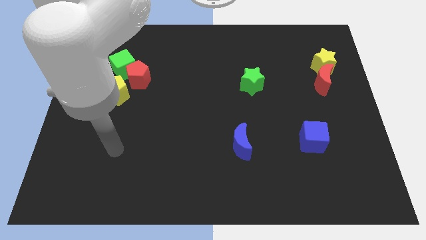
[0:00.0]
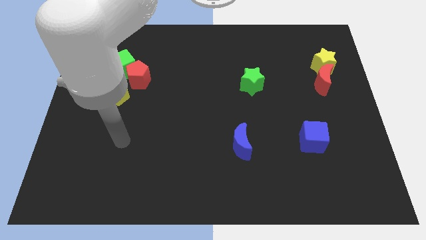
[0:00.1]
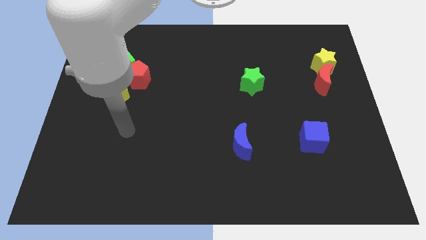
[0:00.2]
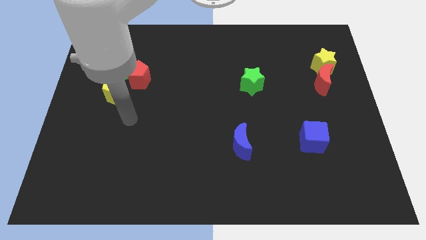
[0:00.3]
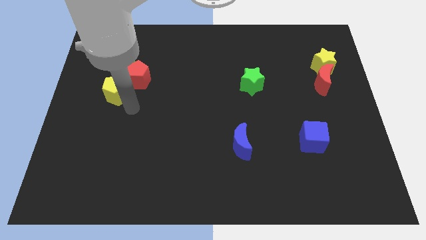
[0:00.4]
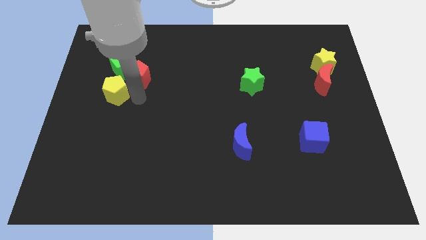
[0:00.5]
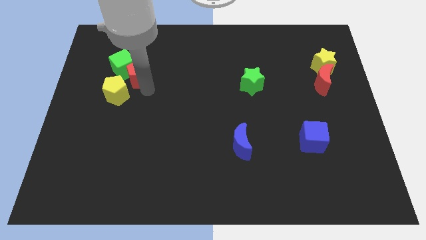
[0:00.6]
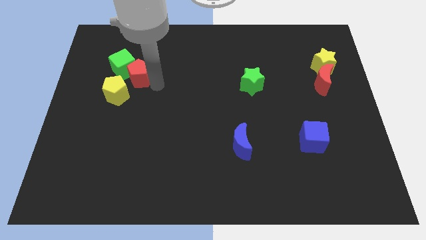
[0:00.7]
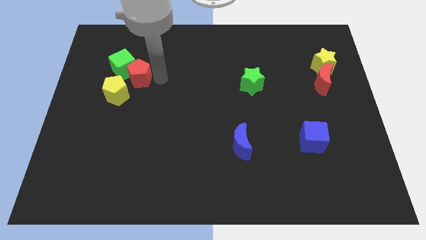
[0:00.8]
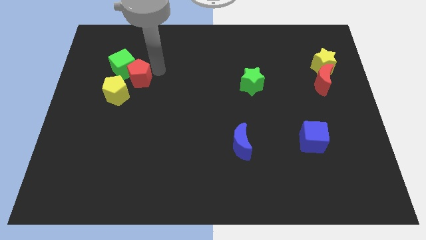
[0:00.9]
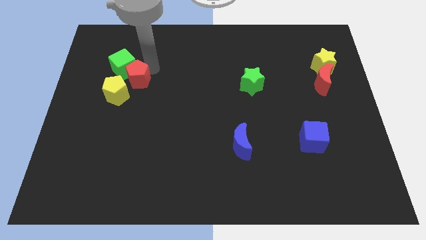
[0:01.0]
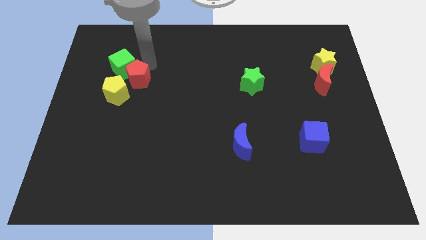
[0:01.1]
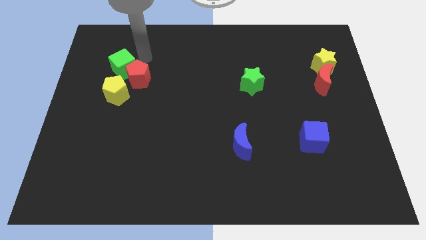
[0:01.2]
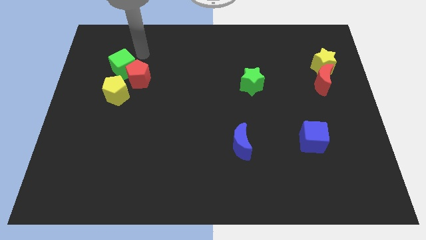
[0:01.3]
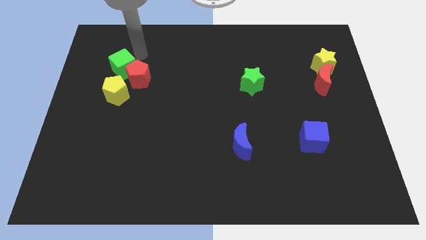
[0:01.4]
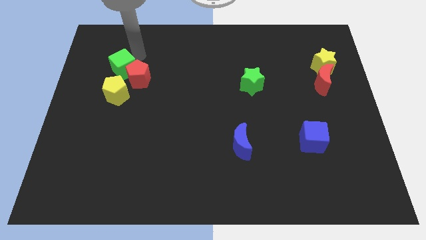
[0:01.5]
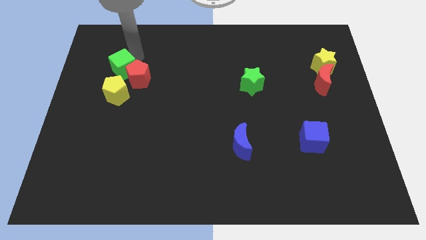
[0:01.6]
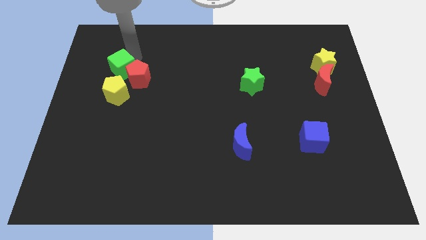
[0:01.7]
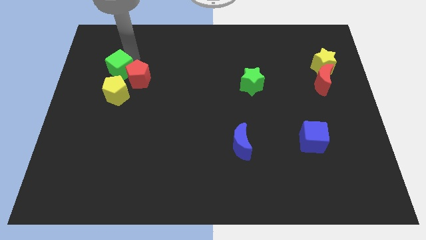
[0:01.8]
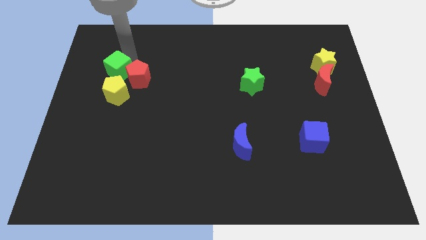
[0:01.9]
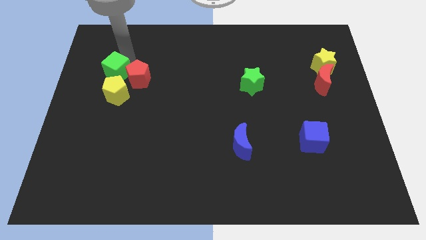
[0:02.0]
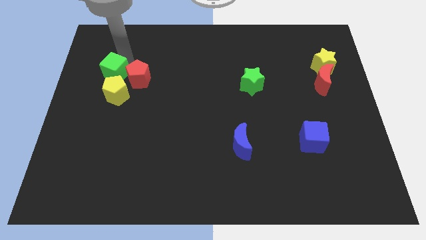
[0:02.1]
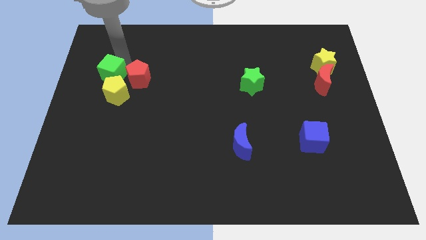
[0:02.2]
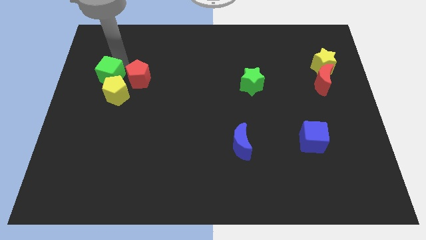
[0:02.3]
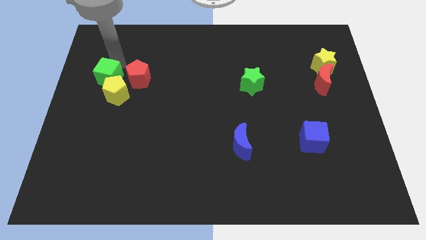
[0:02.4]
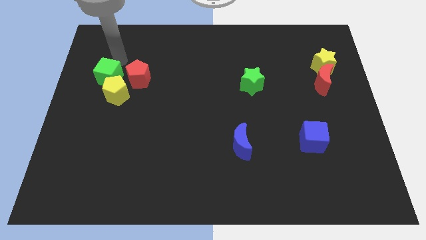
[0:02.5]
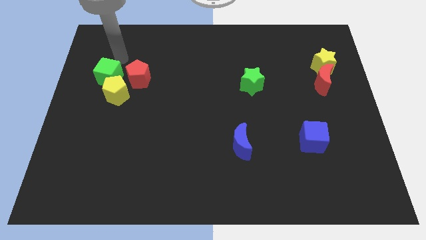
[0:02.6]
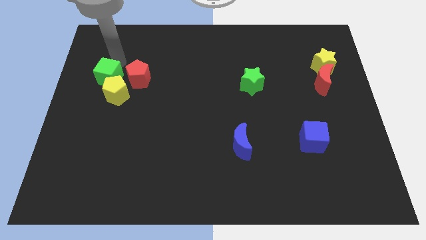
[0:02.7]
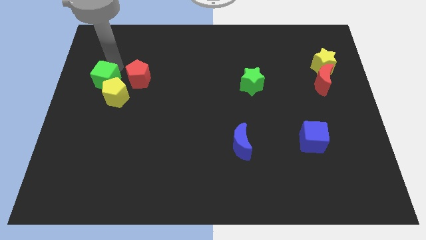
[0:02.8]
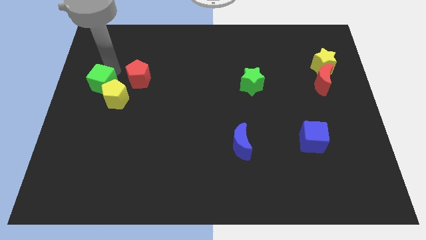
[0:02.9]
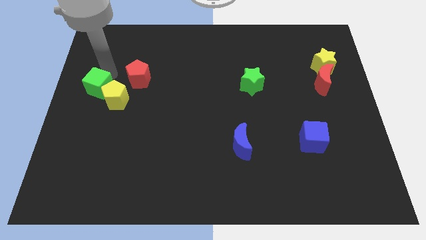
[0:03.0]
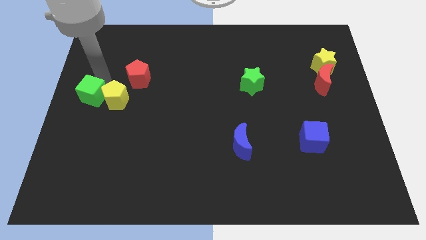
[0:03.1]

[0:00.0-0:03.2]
slide the green cube downwards slightly

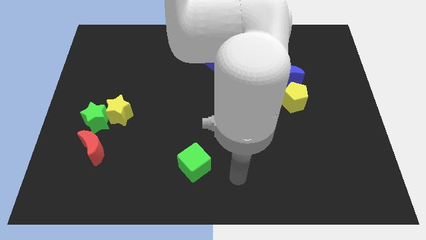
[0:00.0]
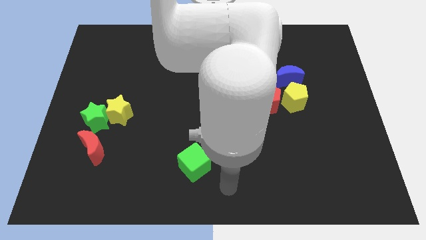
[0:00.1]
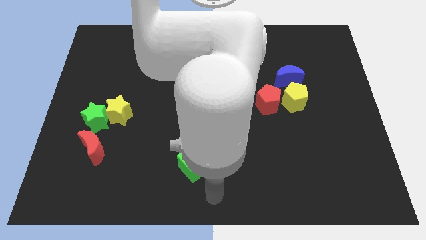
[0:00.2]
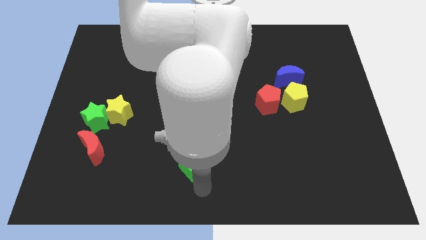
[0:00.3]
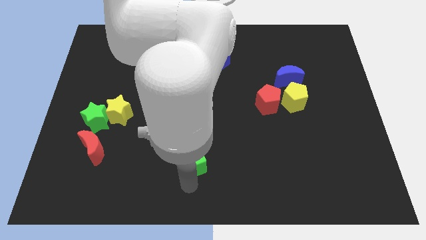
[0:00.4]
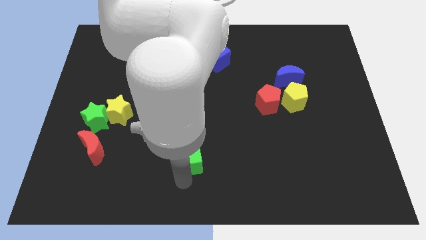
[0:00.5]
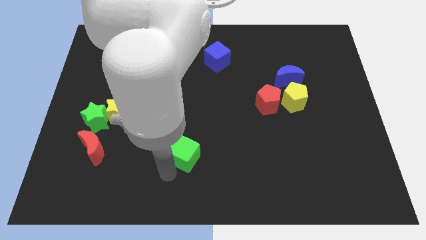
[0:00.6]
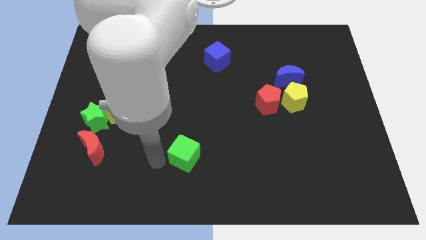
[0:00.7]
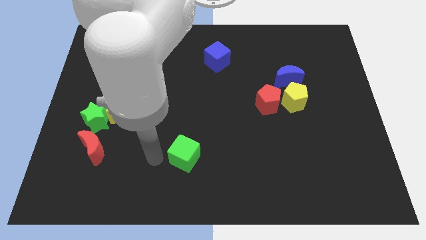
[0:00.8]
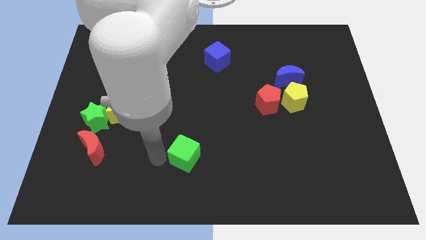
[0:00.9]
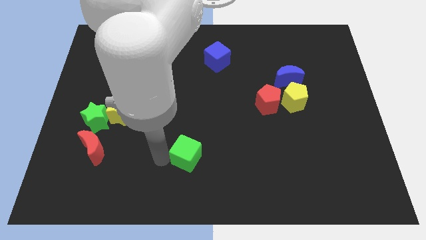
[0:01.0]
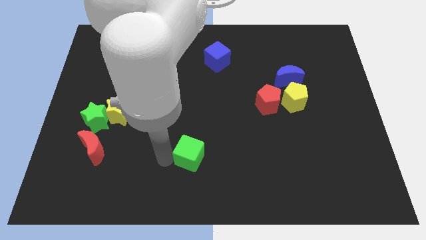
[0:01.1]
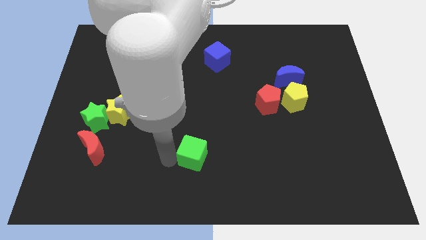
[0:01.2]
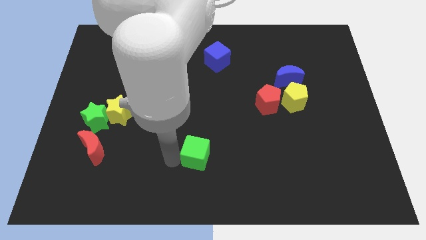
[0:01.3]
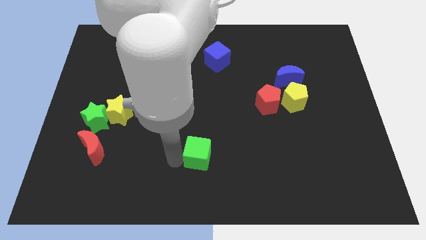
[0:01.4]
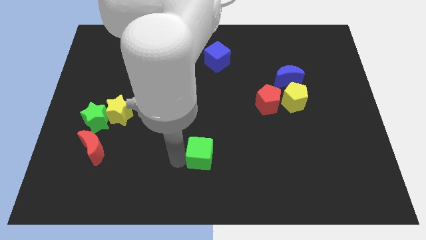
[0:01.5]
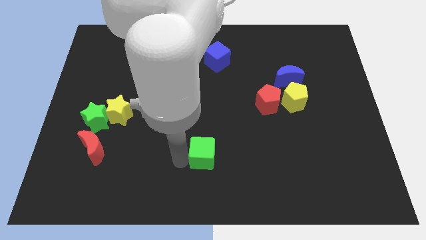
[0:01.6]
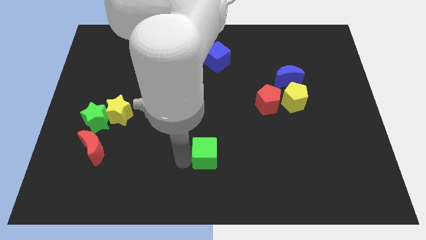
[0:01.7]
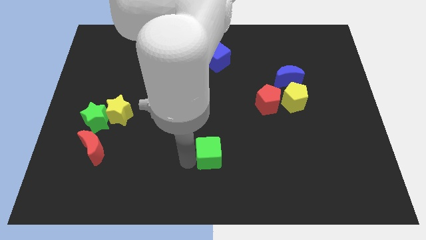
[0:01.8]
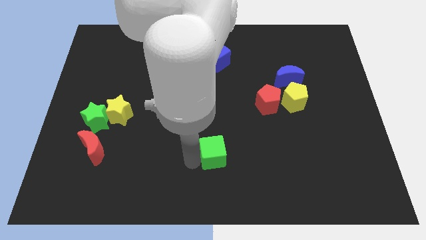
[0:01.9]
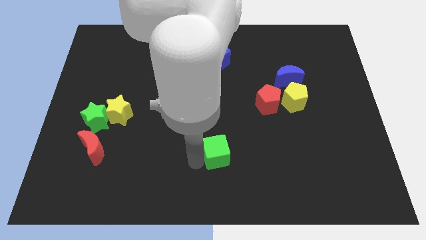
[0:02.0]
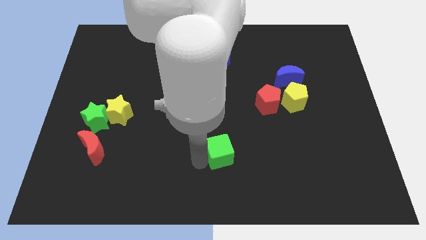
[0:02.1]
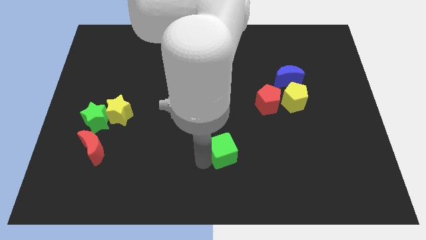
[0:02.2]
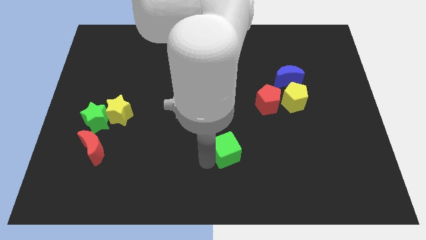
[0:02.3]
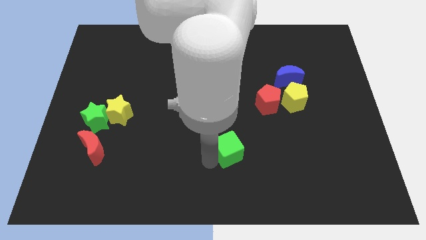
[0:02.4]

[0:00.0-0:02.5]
move the green cube somewhat diagonally upwards and right

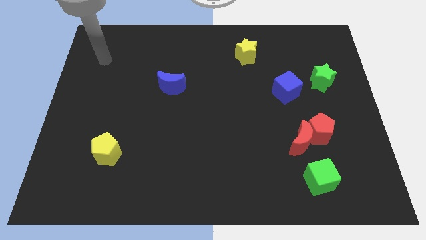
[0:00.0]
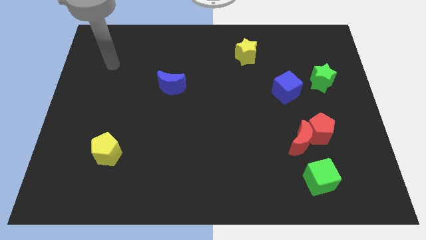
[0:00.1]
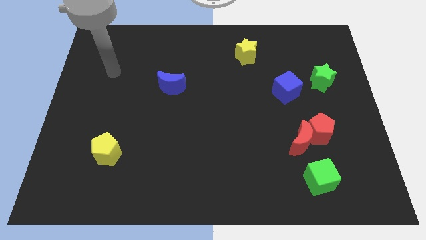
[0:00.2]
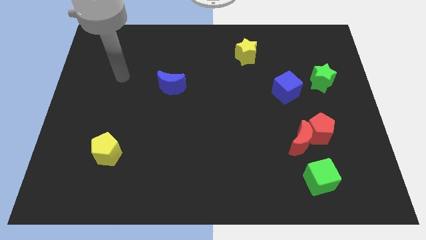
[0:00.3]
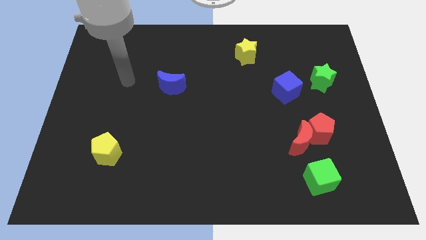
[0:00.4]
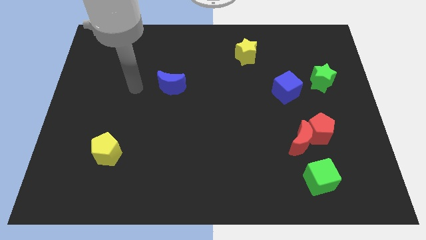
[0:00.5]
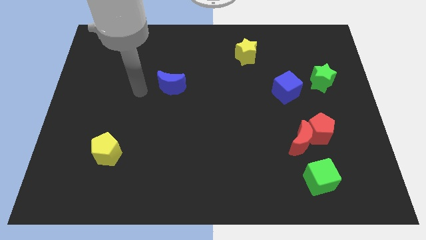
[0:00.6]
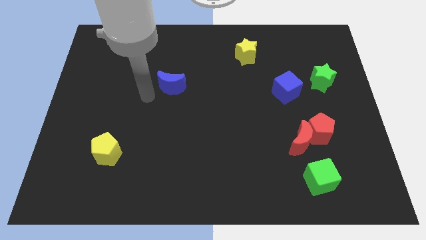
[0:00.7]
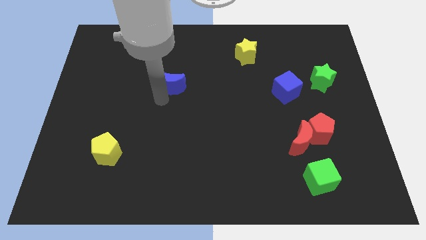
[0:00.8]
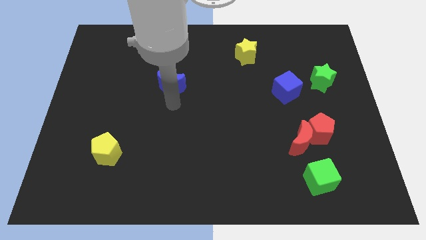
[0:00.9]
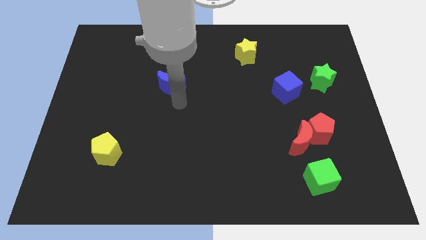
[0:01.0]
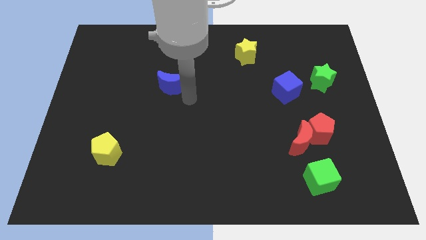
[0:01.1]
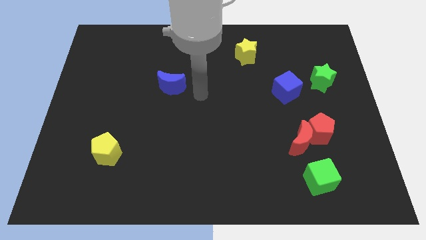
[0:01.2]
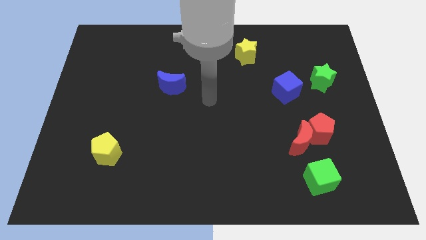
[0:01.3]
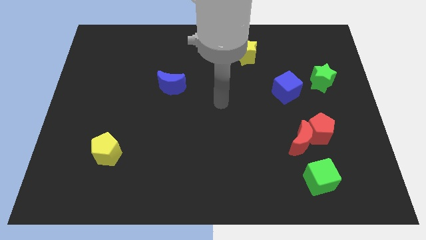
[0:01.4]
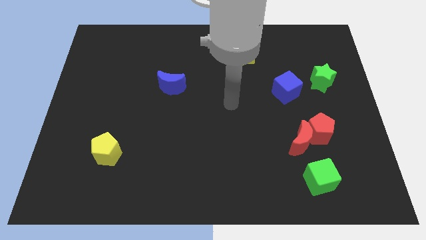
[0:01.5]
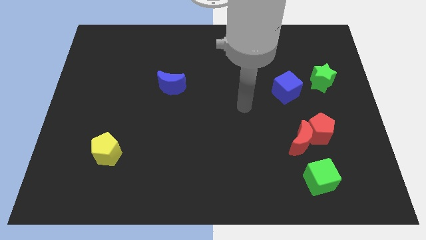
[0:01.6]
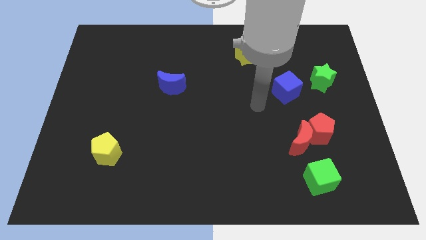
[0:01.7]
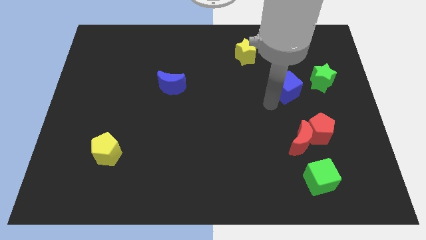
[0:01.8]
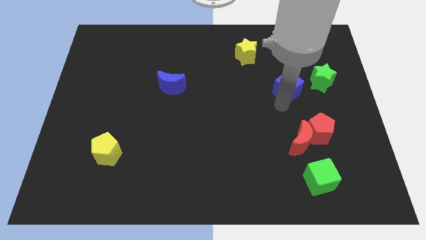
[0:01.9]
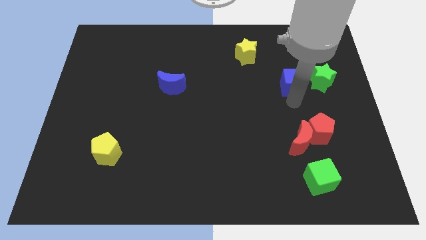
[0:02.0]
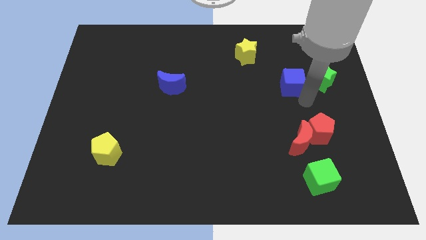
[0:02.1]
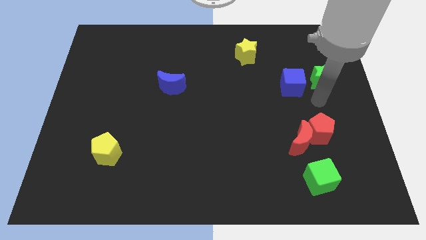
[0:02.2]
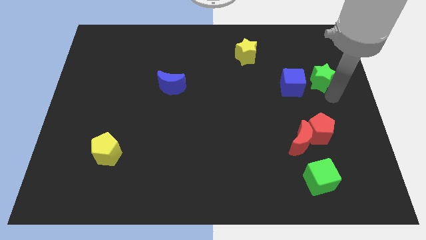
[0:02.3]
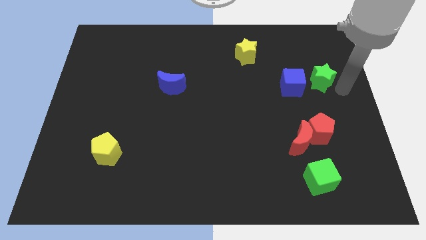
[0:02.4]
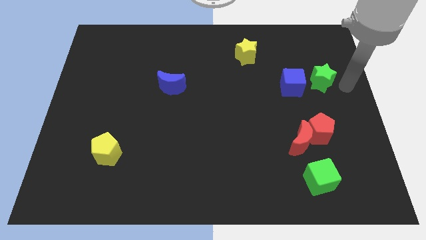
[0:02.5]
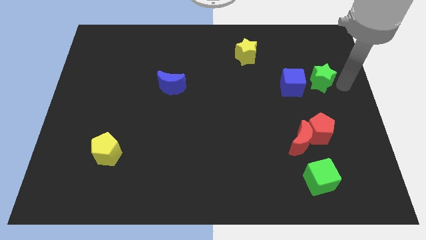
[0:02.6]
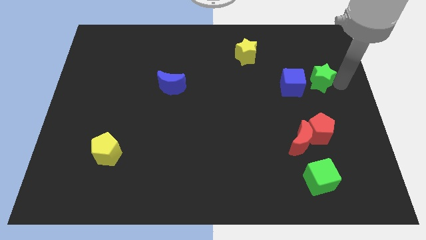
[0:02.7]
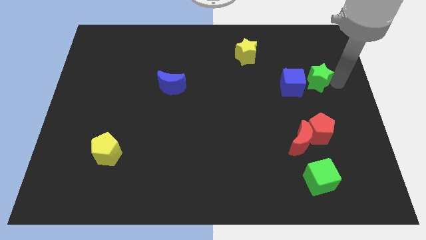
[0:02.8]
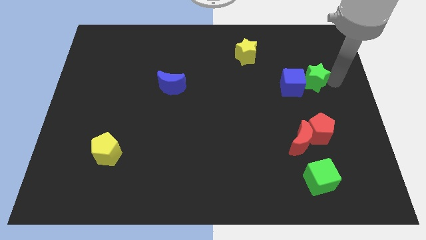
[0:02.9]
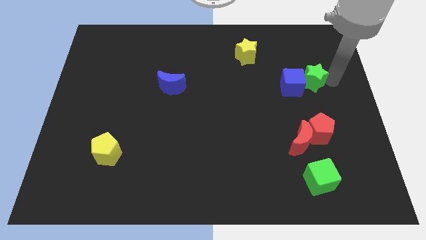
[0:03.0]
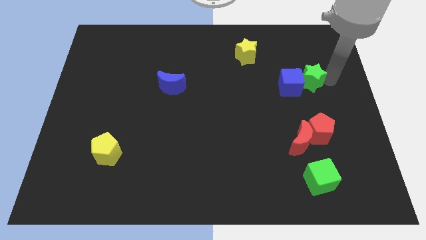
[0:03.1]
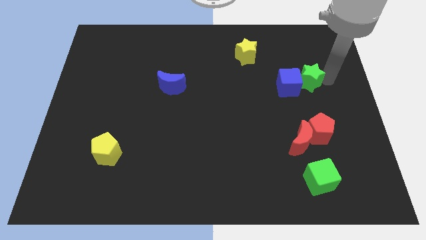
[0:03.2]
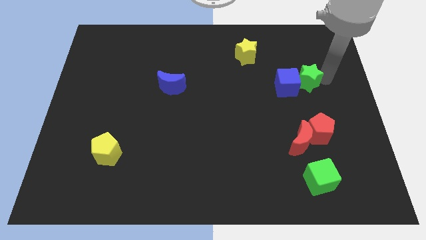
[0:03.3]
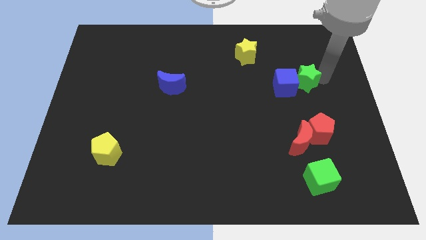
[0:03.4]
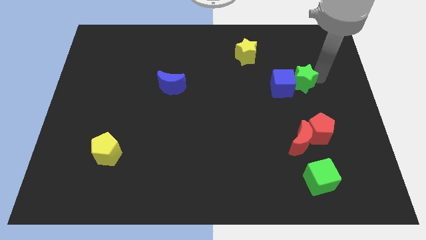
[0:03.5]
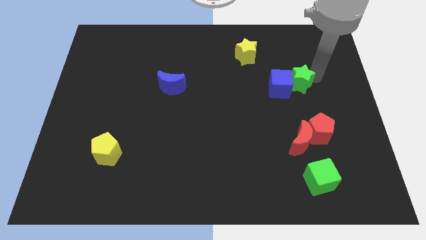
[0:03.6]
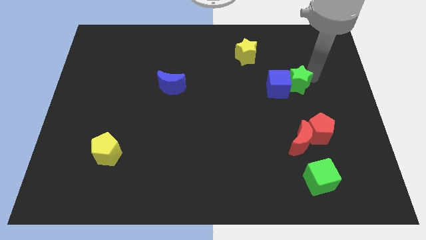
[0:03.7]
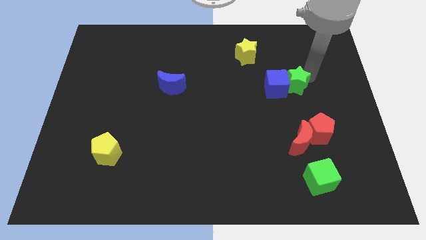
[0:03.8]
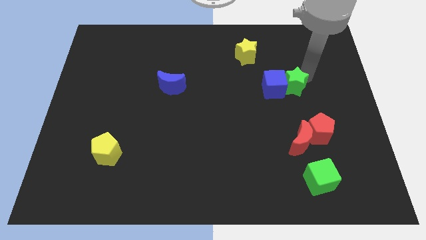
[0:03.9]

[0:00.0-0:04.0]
move the green star left slightly
